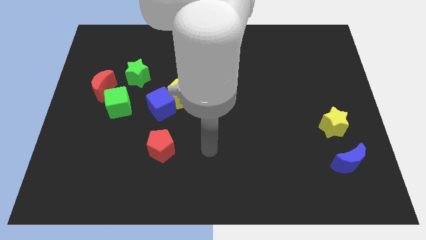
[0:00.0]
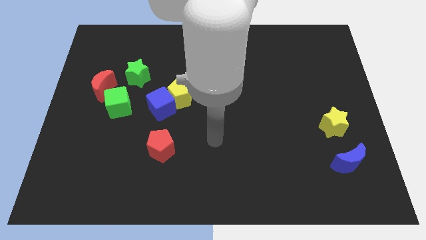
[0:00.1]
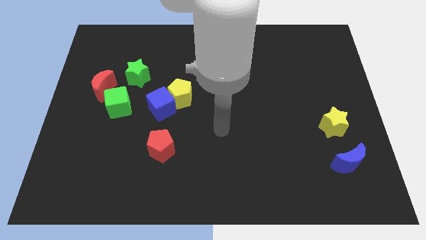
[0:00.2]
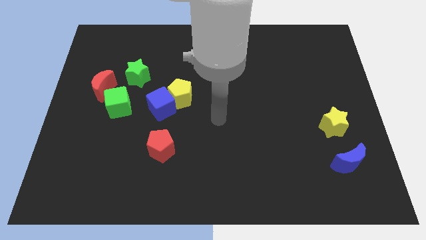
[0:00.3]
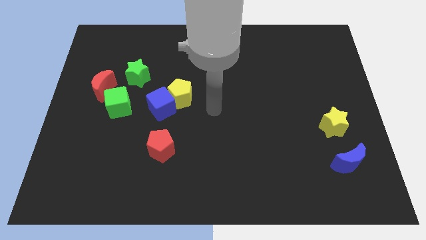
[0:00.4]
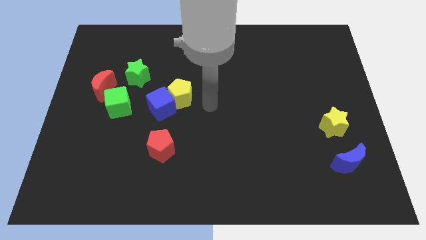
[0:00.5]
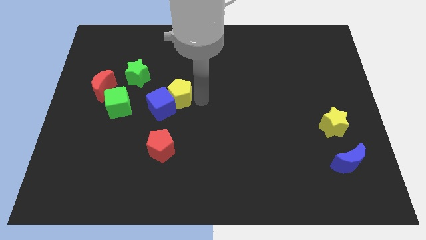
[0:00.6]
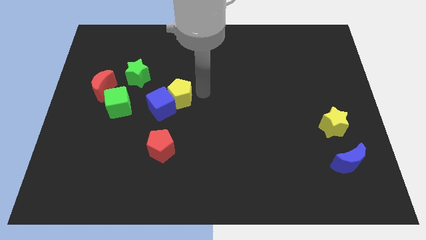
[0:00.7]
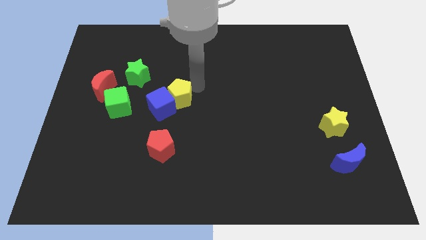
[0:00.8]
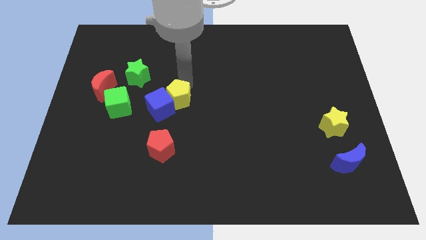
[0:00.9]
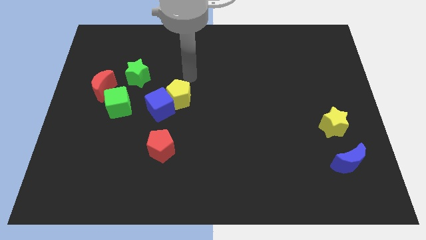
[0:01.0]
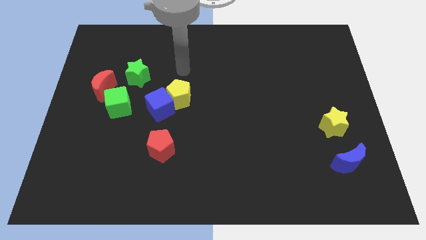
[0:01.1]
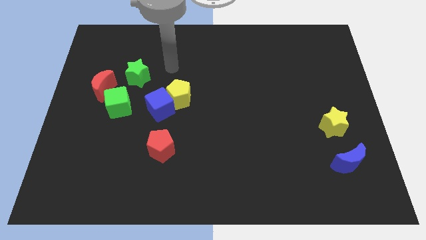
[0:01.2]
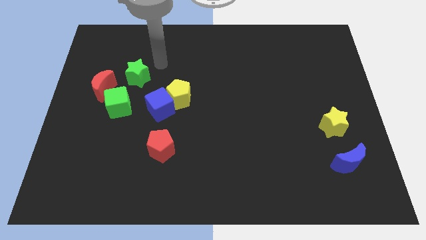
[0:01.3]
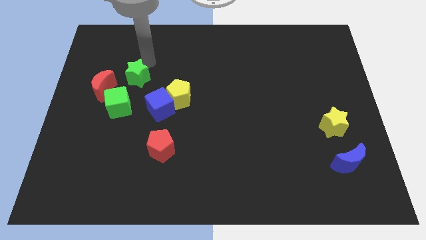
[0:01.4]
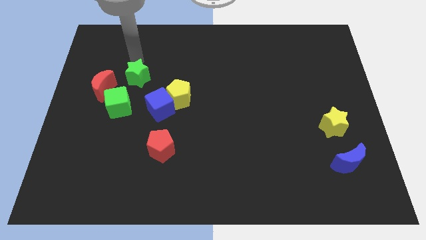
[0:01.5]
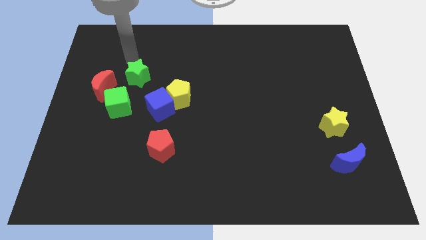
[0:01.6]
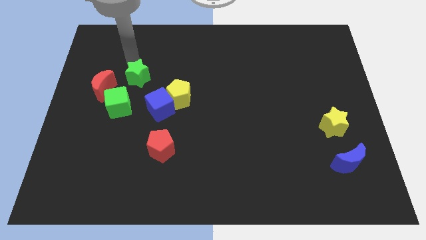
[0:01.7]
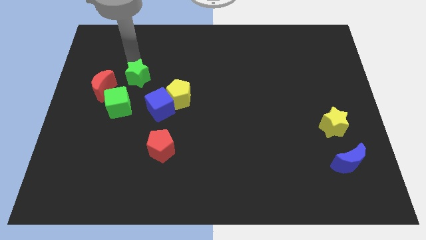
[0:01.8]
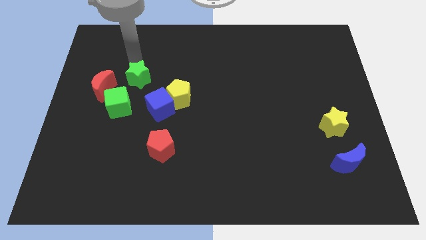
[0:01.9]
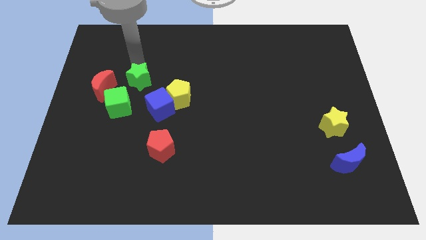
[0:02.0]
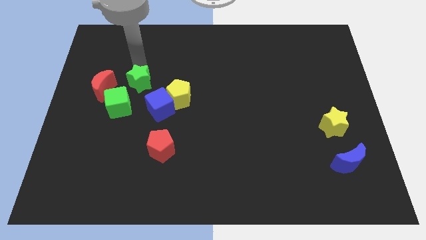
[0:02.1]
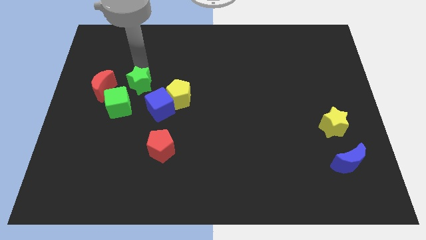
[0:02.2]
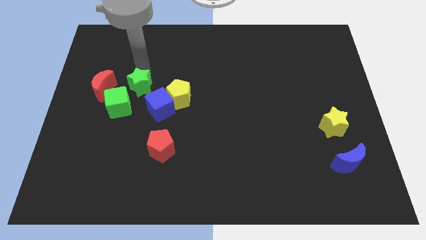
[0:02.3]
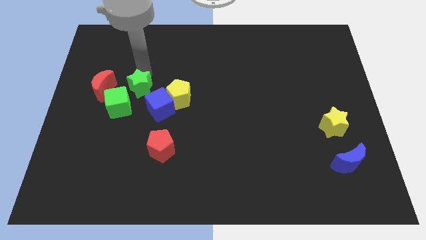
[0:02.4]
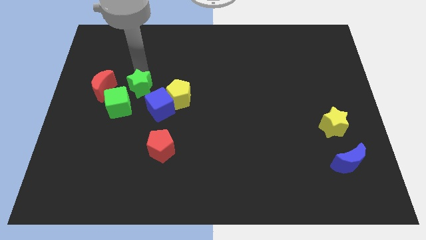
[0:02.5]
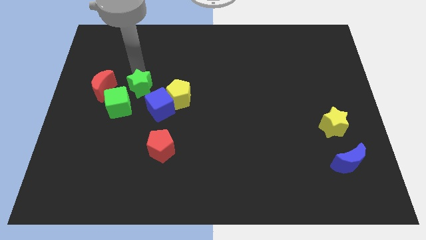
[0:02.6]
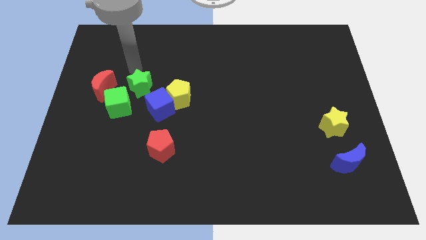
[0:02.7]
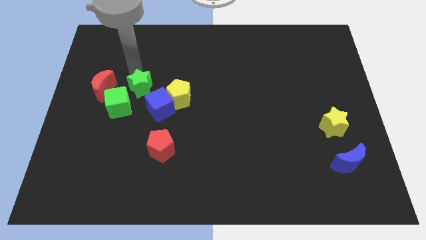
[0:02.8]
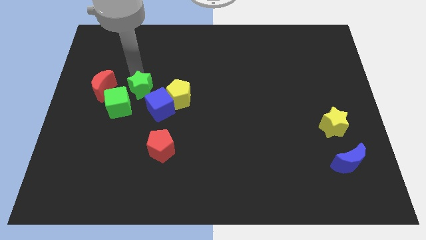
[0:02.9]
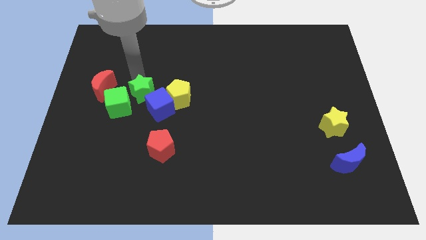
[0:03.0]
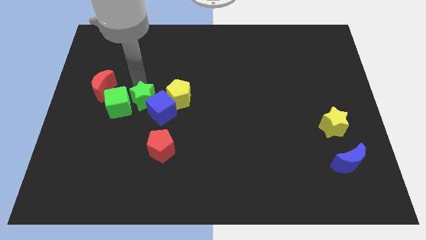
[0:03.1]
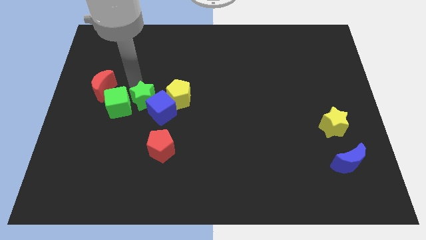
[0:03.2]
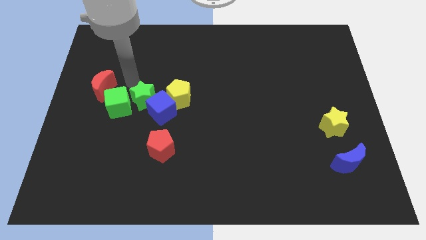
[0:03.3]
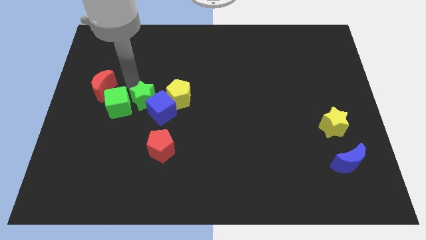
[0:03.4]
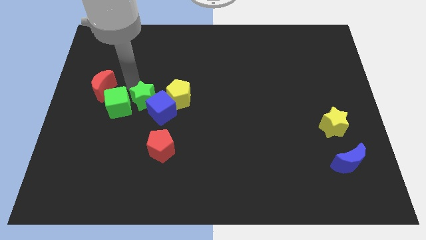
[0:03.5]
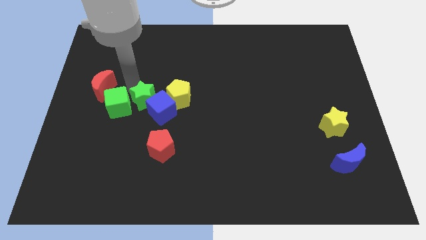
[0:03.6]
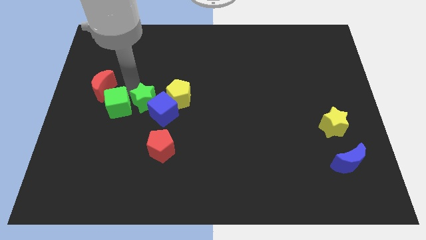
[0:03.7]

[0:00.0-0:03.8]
slide the green star diagonally down and to the left of the yellow pentagon

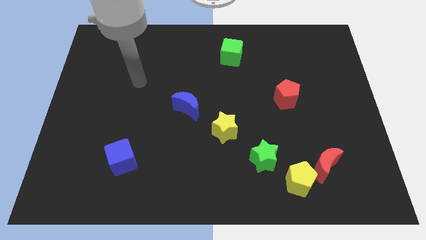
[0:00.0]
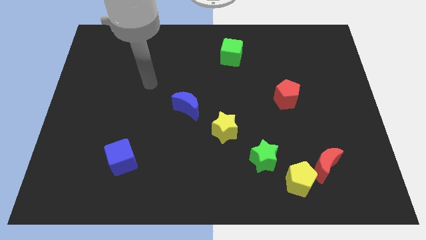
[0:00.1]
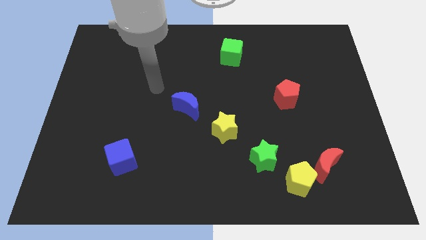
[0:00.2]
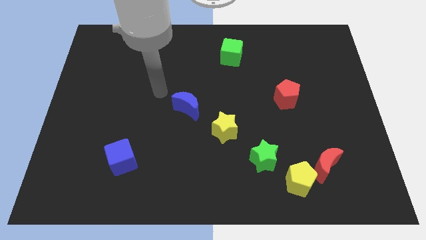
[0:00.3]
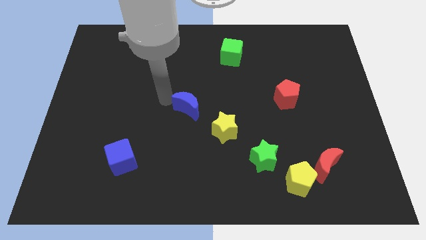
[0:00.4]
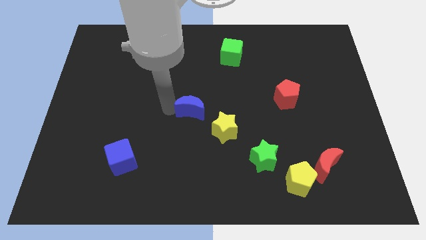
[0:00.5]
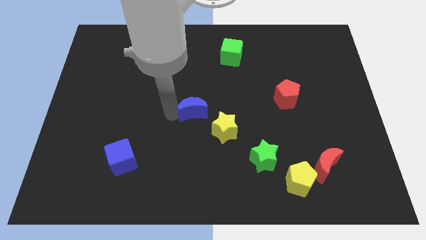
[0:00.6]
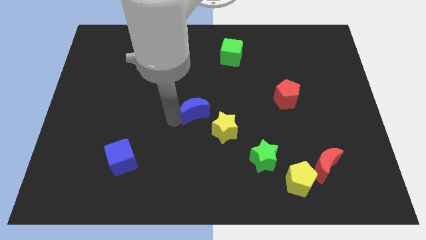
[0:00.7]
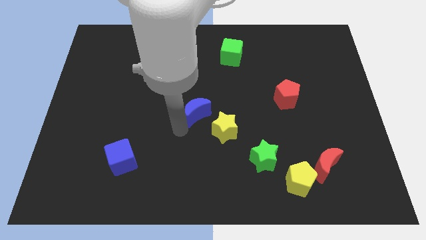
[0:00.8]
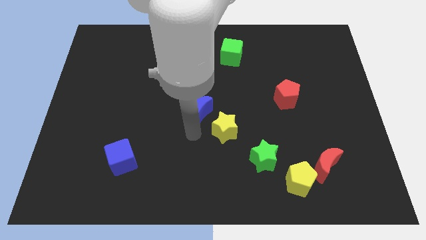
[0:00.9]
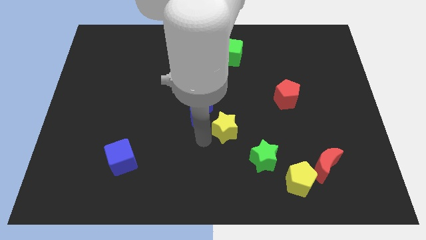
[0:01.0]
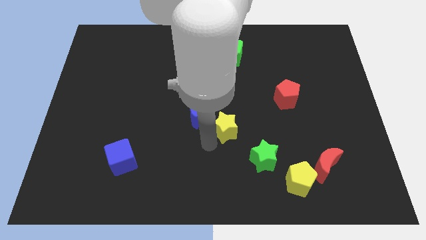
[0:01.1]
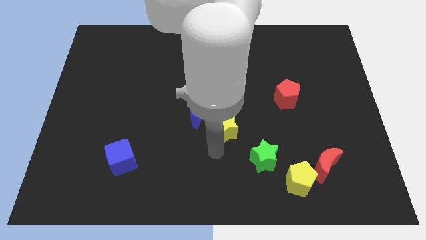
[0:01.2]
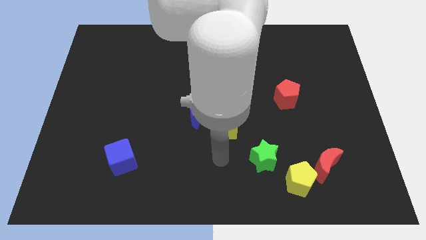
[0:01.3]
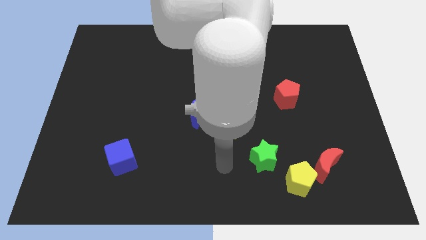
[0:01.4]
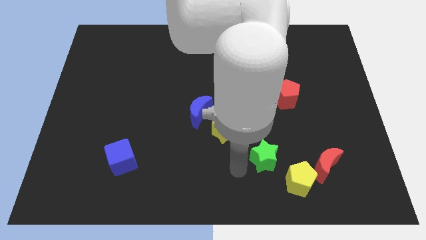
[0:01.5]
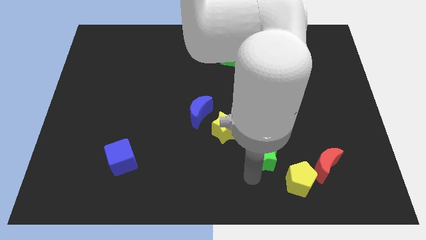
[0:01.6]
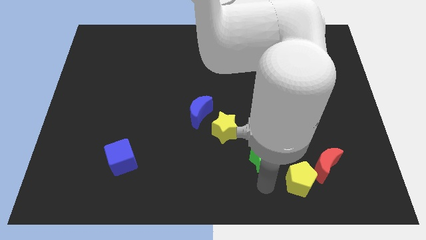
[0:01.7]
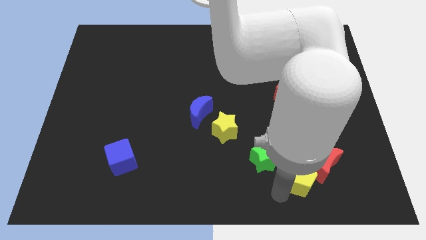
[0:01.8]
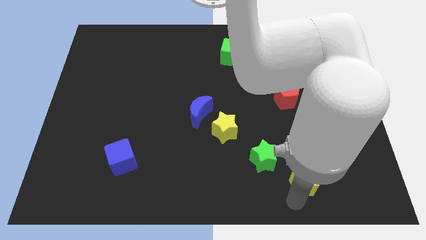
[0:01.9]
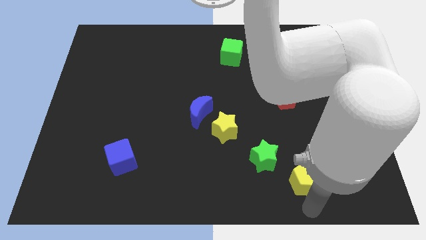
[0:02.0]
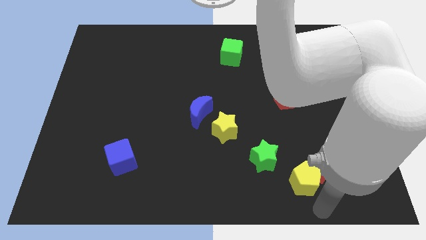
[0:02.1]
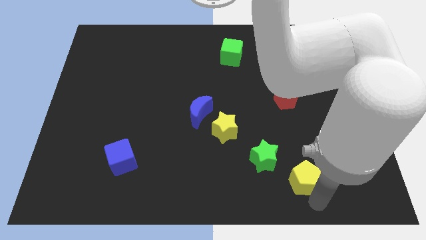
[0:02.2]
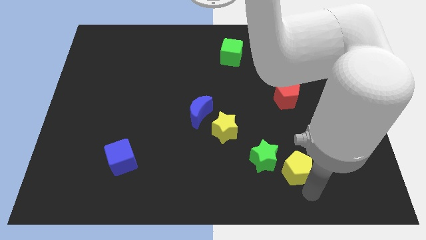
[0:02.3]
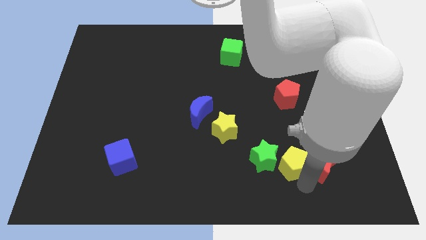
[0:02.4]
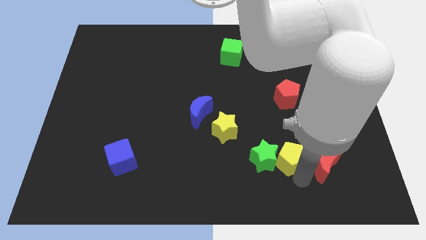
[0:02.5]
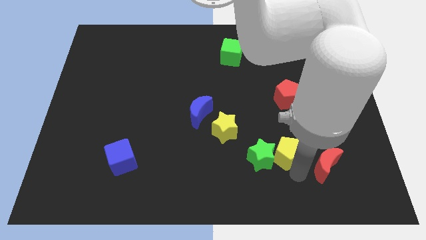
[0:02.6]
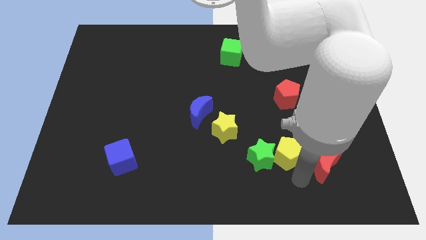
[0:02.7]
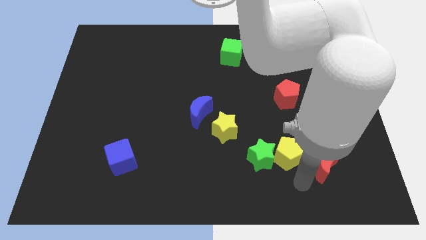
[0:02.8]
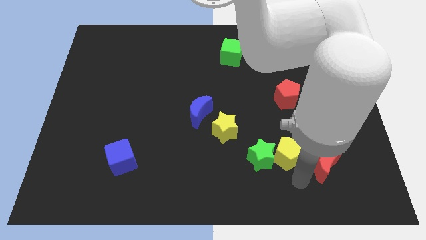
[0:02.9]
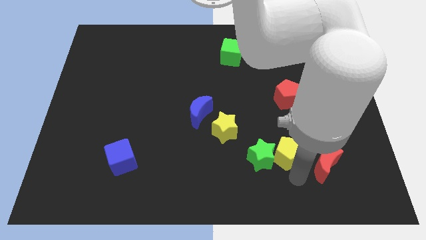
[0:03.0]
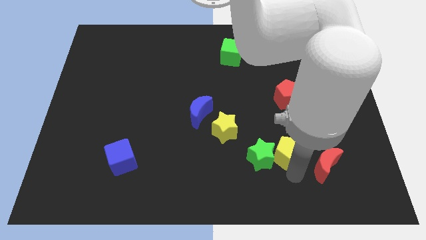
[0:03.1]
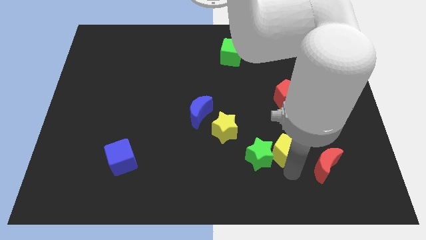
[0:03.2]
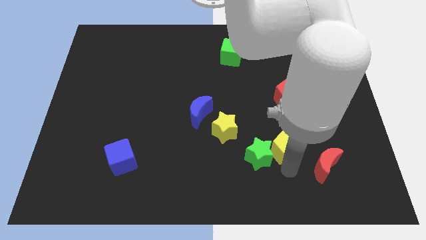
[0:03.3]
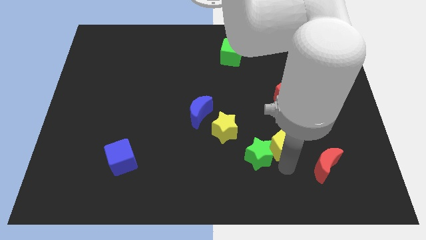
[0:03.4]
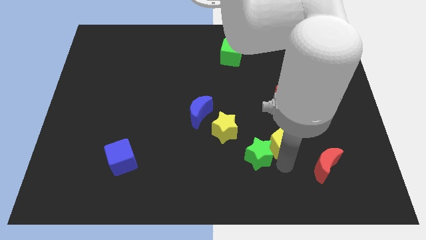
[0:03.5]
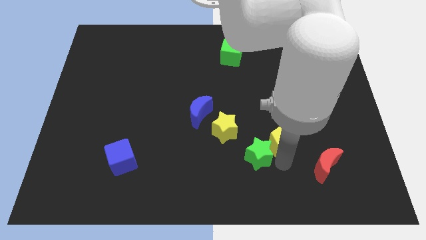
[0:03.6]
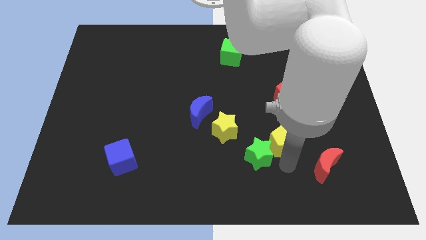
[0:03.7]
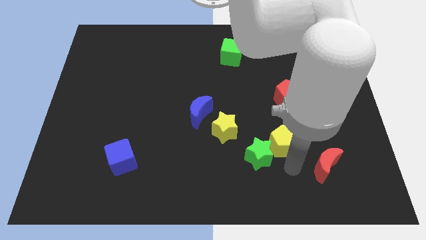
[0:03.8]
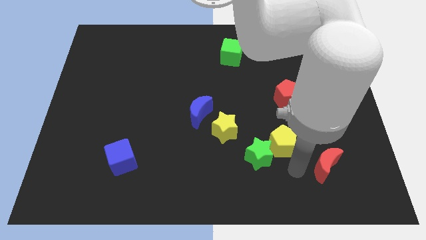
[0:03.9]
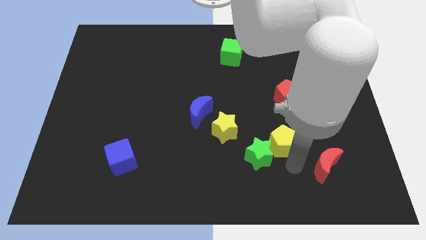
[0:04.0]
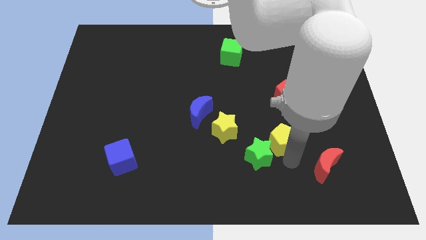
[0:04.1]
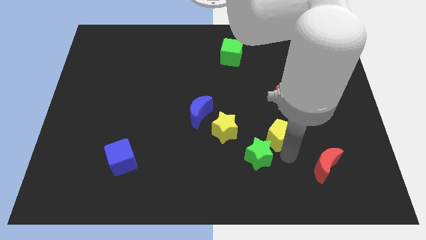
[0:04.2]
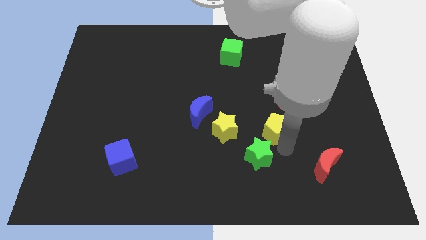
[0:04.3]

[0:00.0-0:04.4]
push the yellow pentagon diagonally down and to the left of the red pentagon

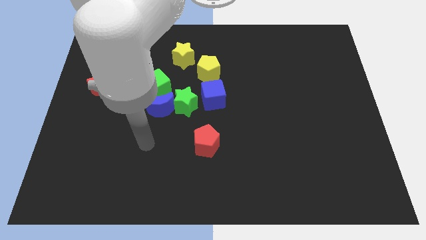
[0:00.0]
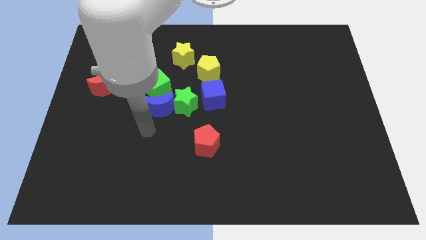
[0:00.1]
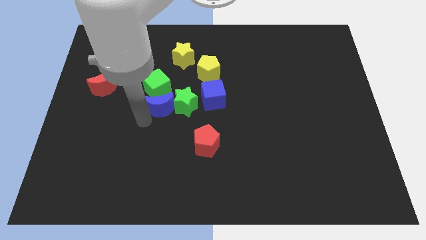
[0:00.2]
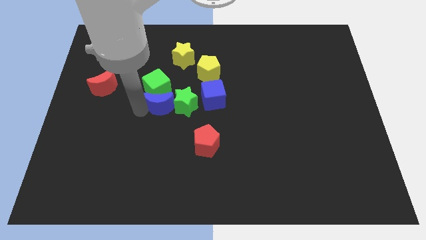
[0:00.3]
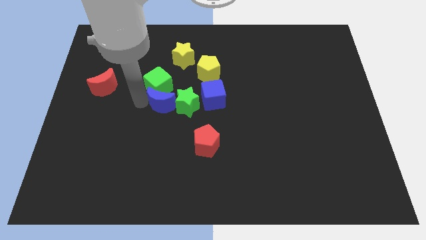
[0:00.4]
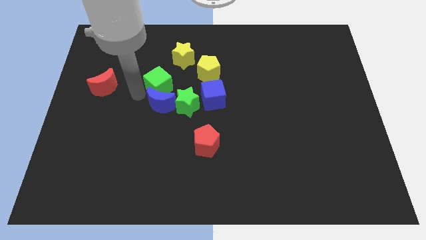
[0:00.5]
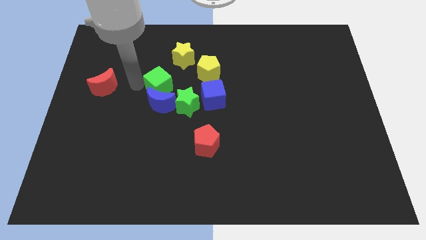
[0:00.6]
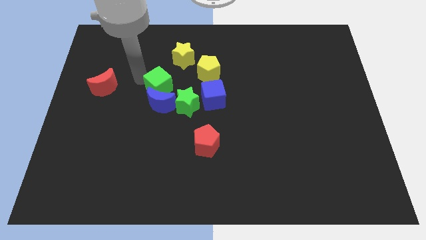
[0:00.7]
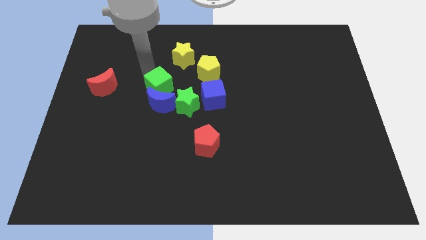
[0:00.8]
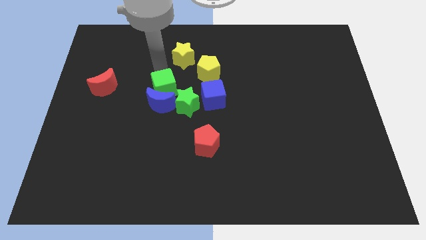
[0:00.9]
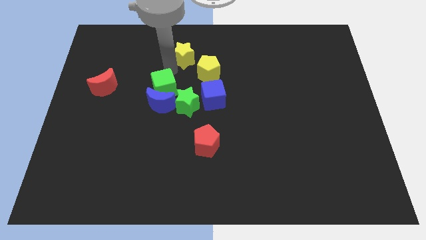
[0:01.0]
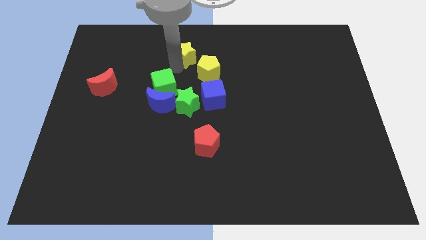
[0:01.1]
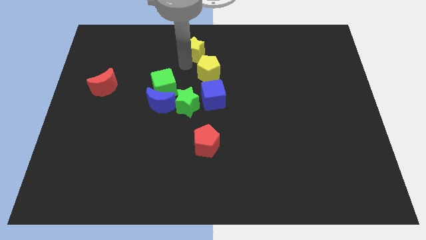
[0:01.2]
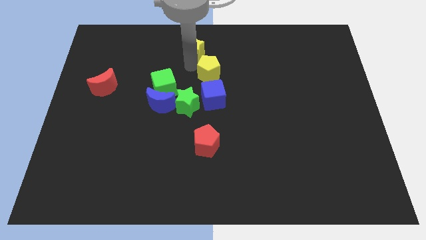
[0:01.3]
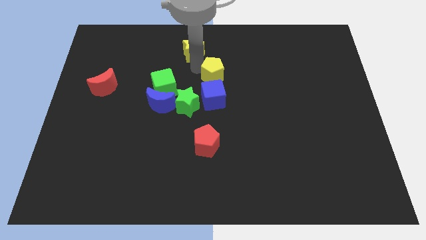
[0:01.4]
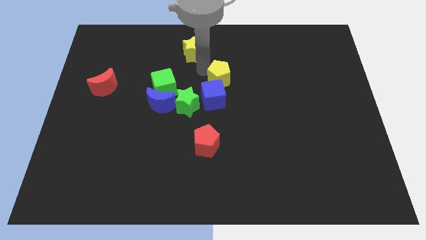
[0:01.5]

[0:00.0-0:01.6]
push the yellow pentagon diagonally up and to the right of the blue cube
